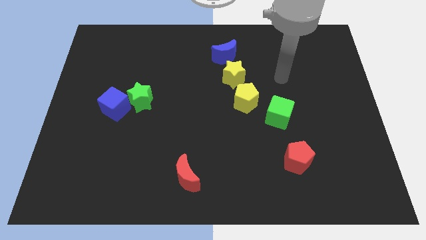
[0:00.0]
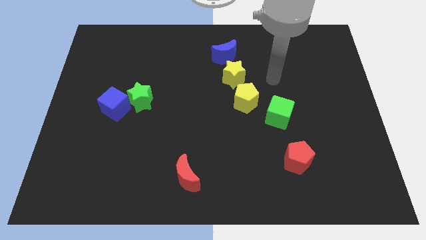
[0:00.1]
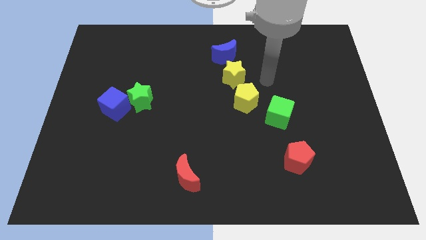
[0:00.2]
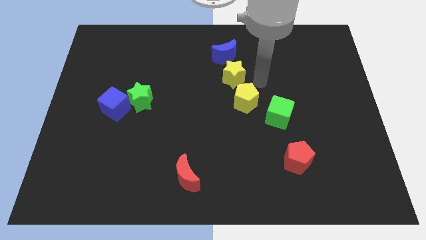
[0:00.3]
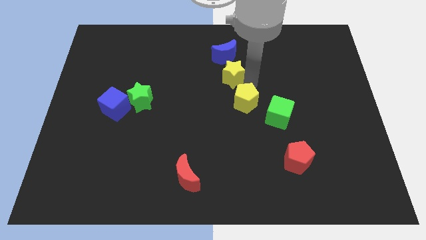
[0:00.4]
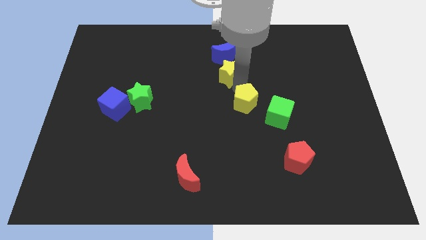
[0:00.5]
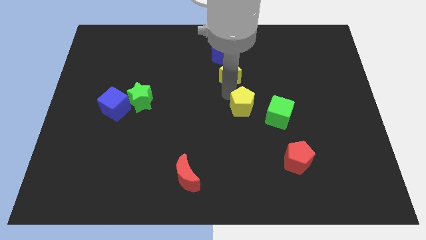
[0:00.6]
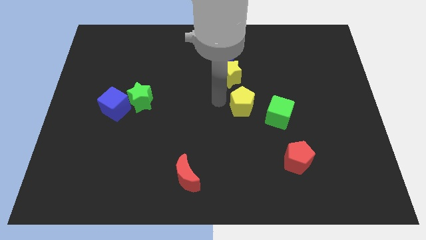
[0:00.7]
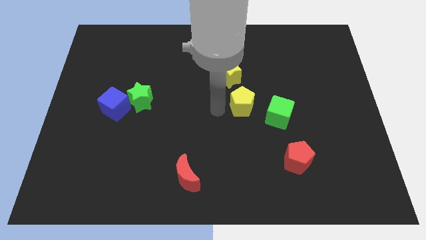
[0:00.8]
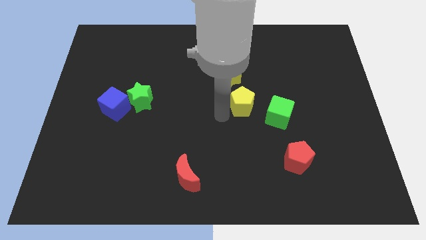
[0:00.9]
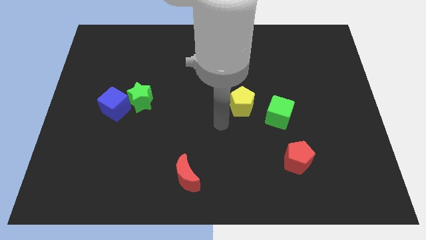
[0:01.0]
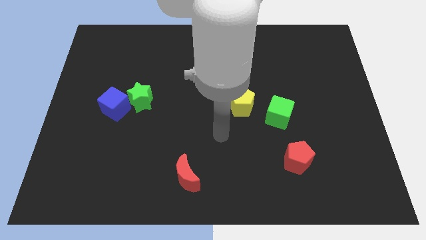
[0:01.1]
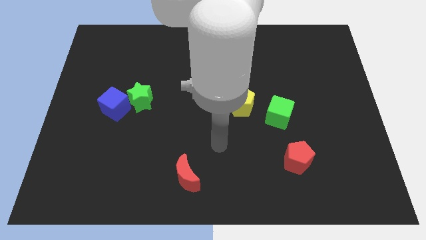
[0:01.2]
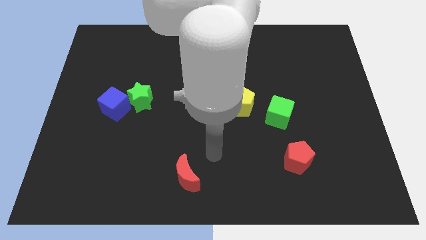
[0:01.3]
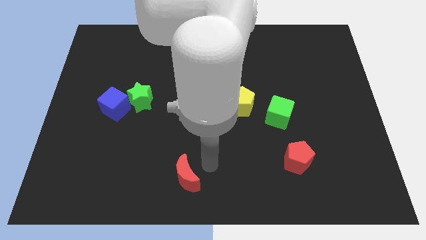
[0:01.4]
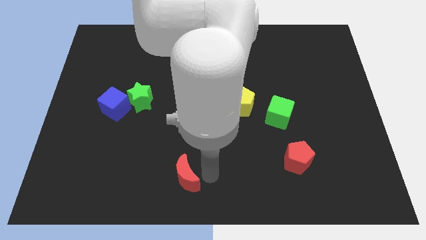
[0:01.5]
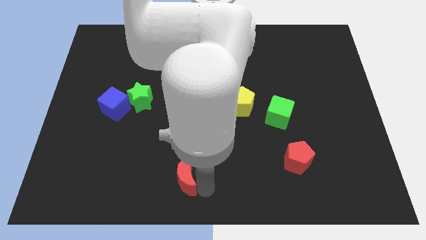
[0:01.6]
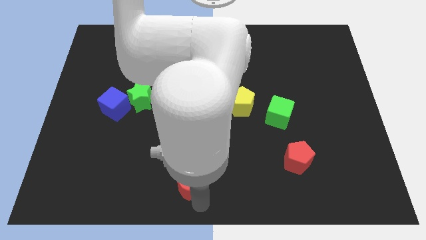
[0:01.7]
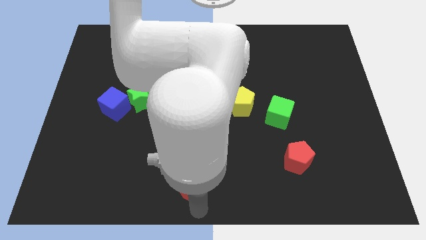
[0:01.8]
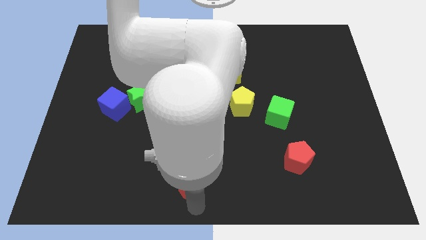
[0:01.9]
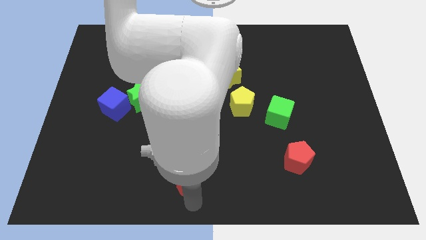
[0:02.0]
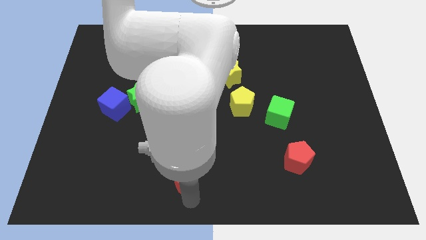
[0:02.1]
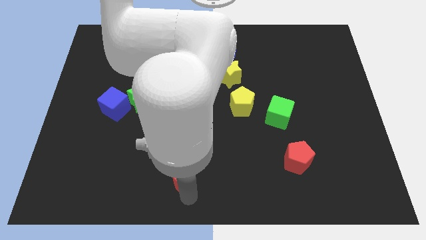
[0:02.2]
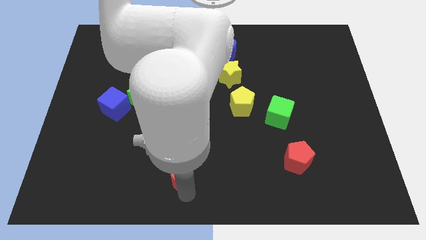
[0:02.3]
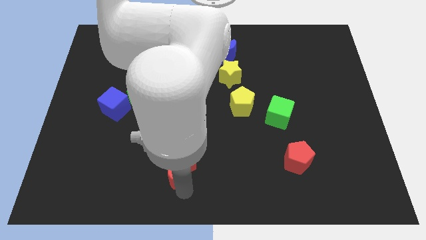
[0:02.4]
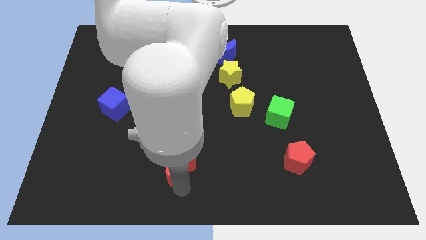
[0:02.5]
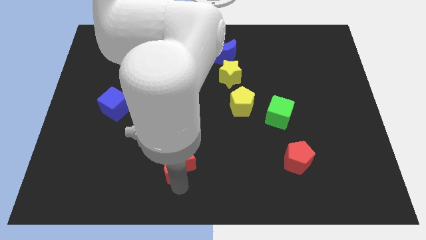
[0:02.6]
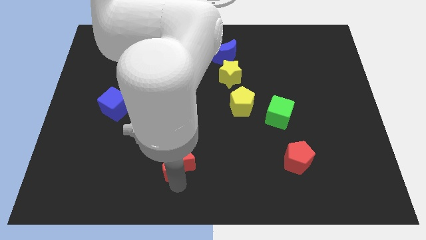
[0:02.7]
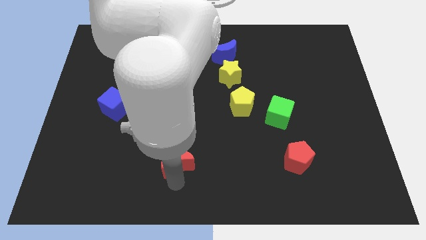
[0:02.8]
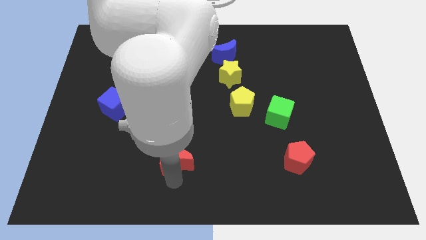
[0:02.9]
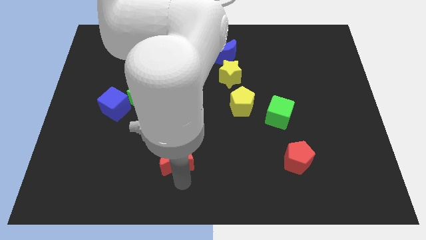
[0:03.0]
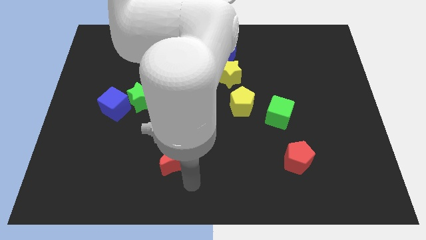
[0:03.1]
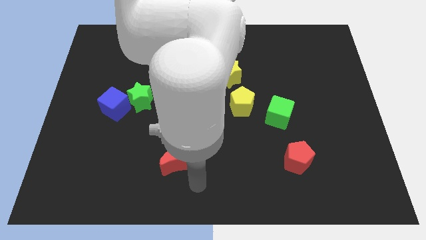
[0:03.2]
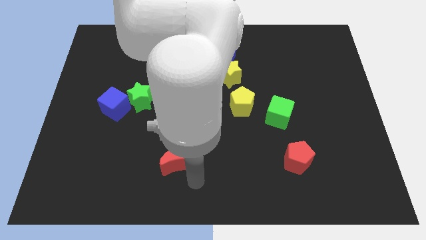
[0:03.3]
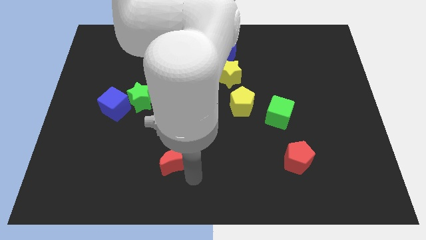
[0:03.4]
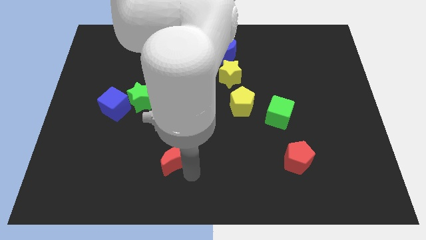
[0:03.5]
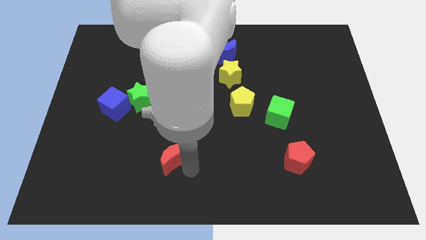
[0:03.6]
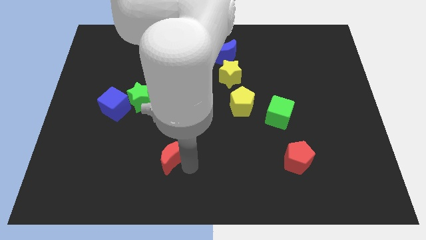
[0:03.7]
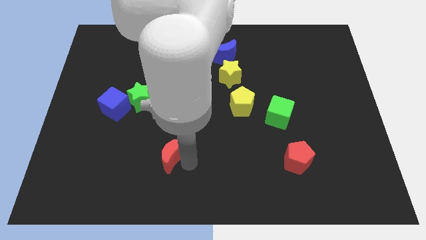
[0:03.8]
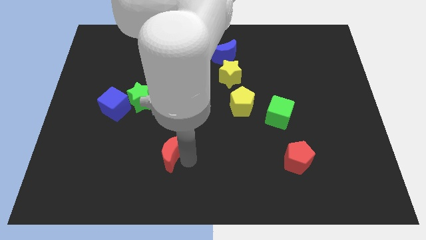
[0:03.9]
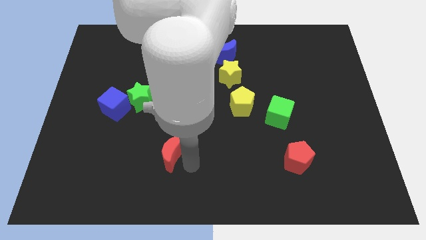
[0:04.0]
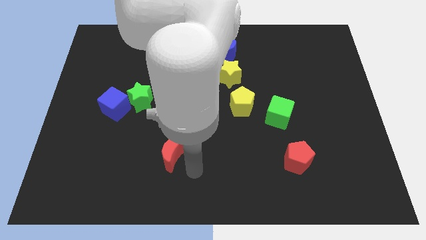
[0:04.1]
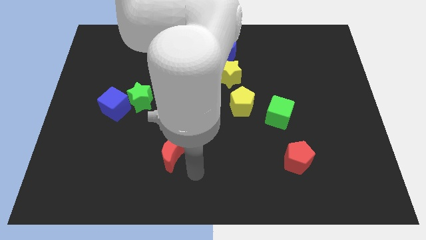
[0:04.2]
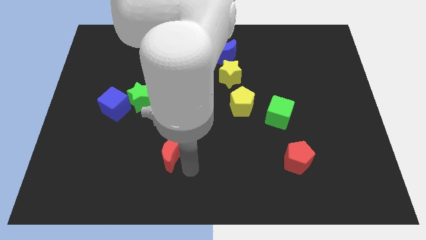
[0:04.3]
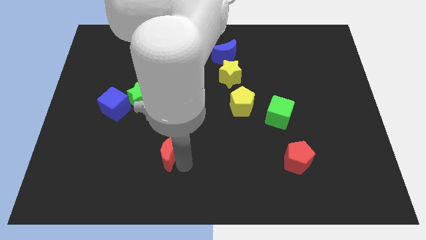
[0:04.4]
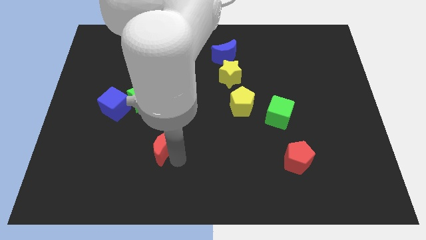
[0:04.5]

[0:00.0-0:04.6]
move the red moon a little bit up and to the left diagonally

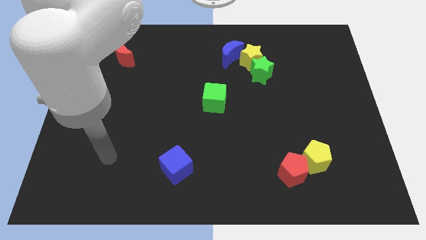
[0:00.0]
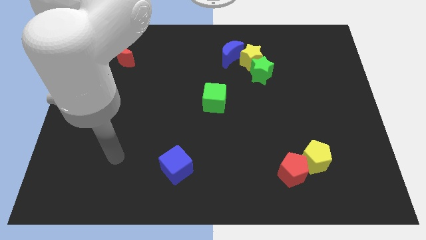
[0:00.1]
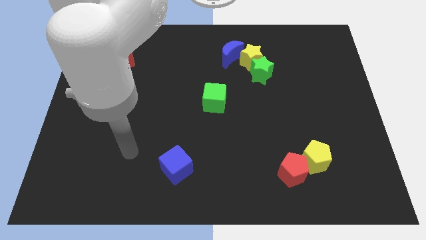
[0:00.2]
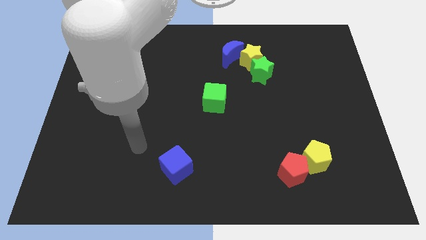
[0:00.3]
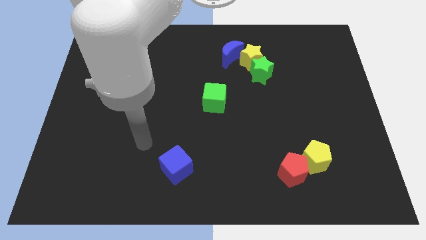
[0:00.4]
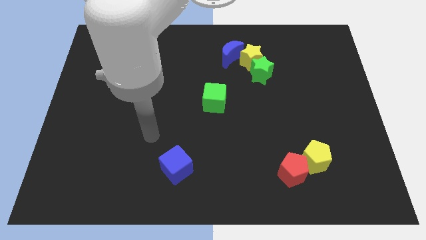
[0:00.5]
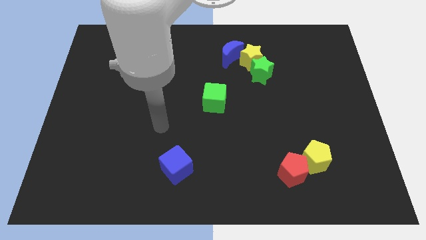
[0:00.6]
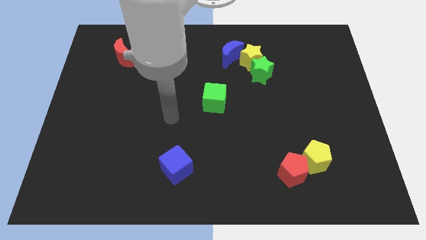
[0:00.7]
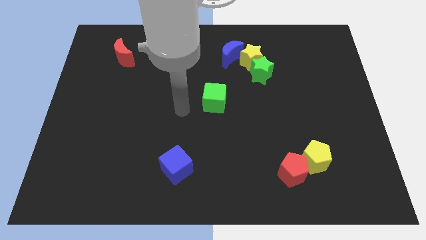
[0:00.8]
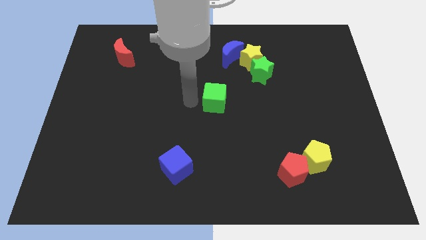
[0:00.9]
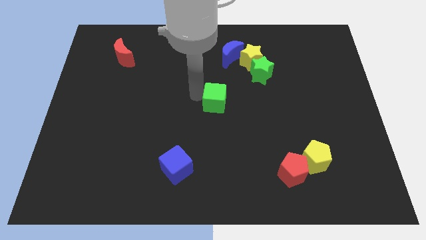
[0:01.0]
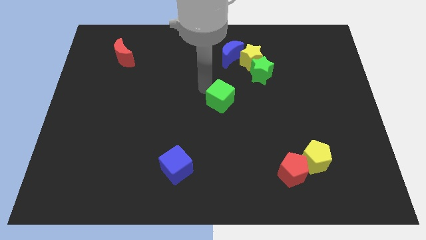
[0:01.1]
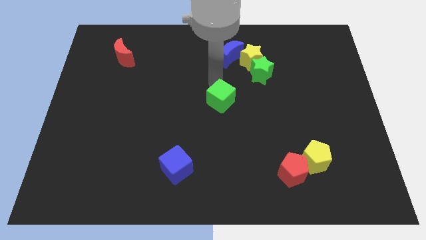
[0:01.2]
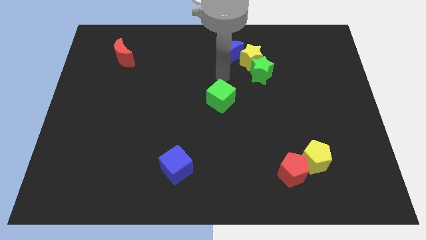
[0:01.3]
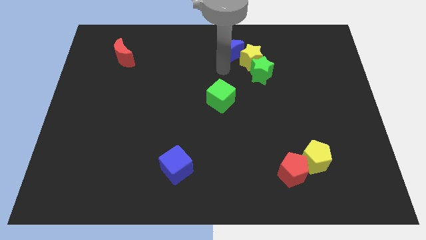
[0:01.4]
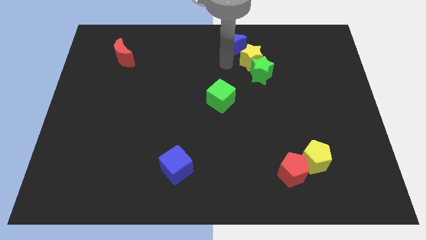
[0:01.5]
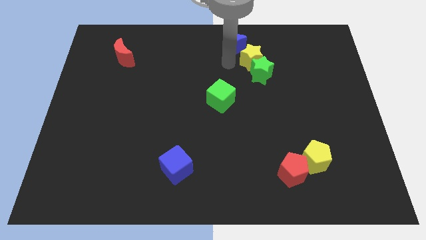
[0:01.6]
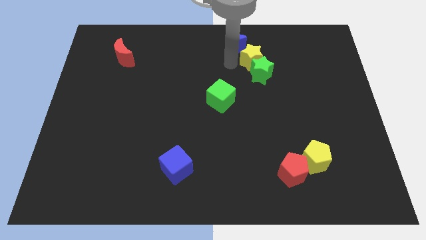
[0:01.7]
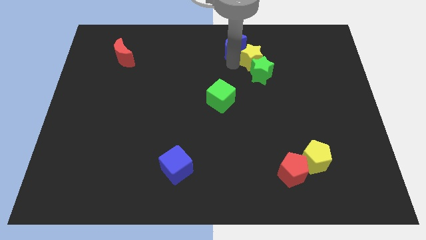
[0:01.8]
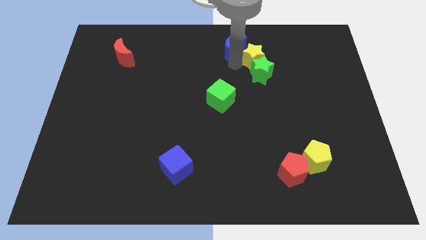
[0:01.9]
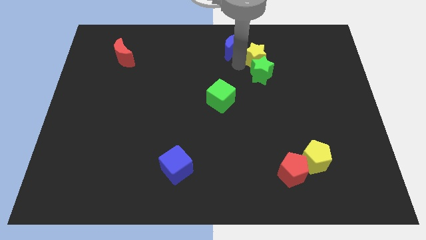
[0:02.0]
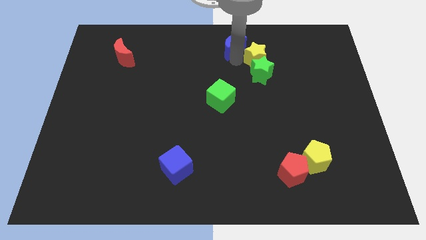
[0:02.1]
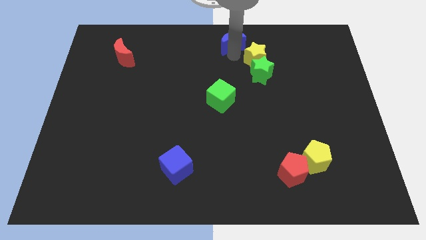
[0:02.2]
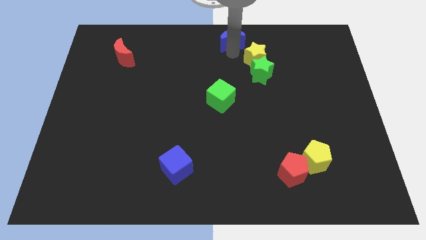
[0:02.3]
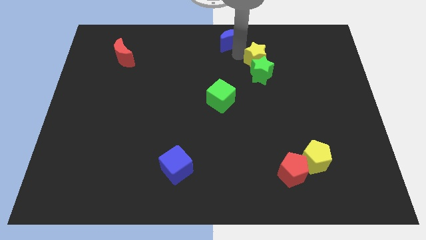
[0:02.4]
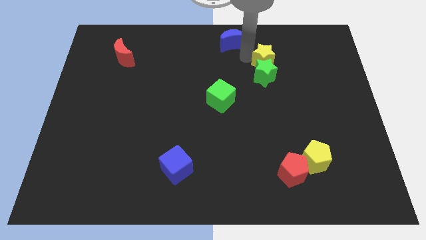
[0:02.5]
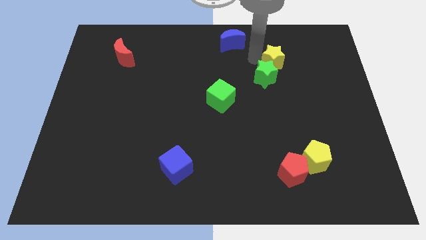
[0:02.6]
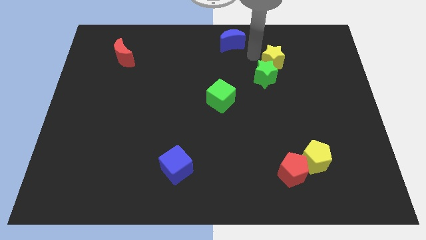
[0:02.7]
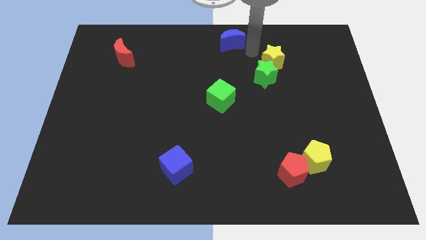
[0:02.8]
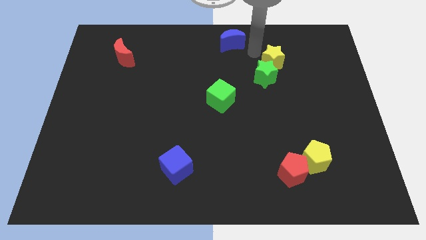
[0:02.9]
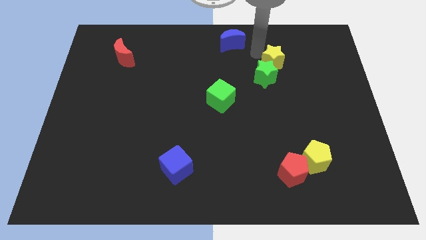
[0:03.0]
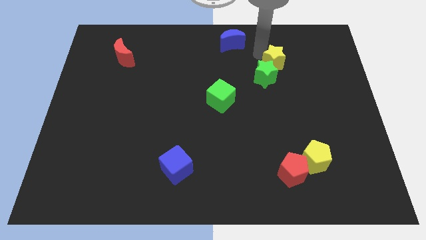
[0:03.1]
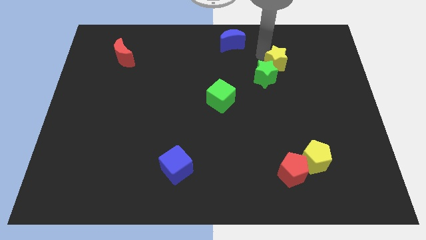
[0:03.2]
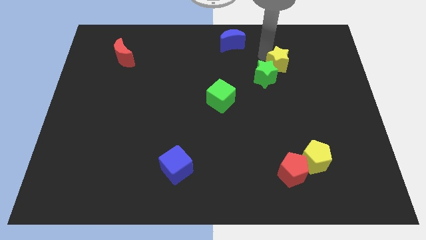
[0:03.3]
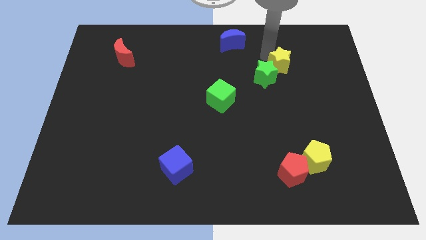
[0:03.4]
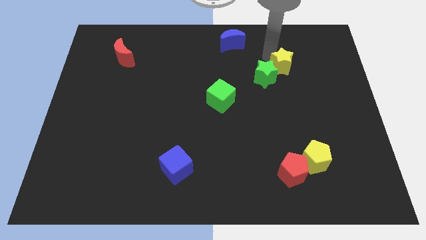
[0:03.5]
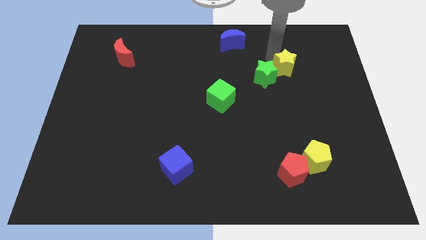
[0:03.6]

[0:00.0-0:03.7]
push the yellow star a bit downwards and to the right
